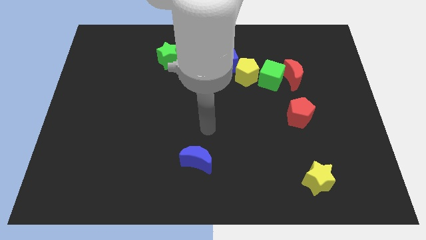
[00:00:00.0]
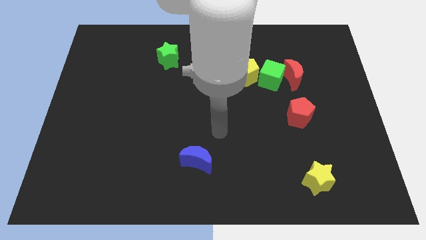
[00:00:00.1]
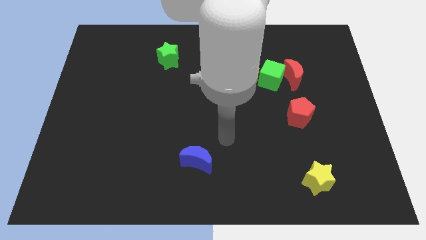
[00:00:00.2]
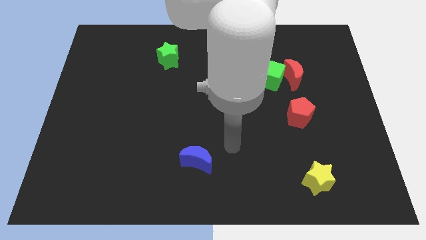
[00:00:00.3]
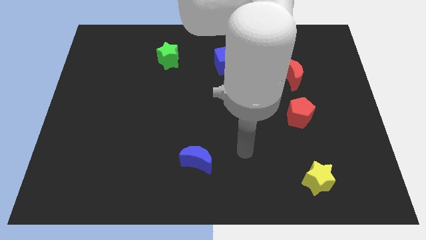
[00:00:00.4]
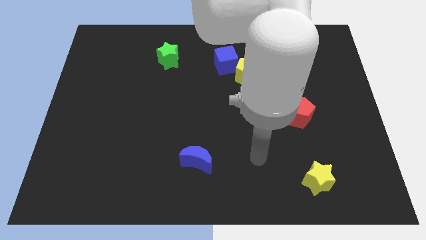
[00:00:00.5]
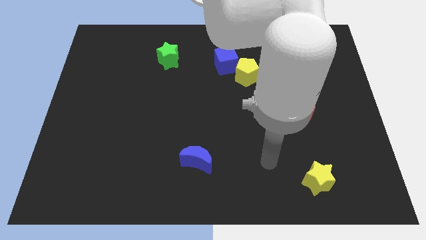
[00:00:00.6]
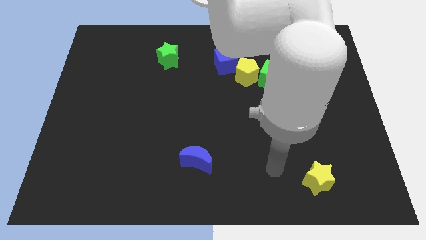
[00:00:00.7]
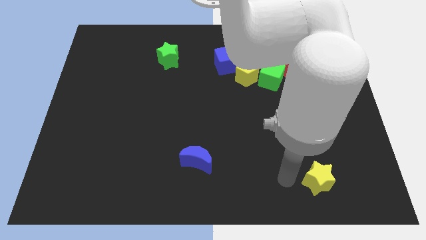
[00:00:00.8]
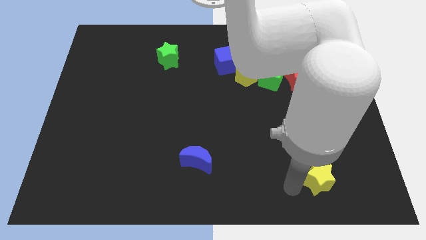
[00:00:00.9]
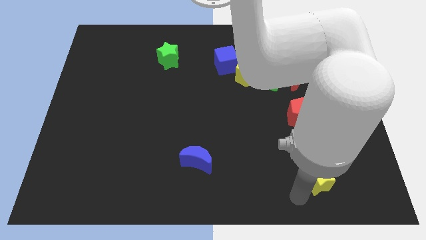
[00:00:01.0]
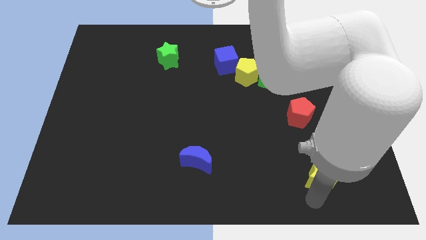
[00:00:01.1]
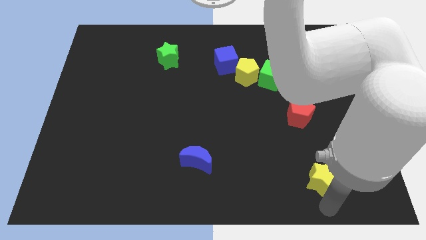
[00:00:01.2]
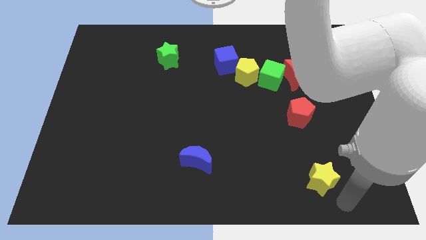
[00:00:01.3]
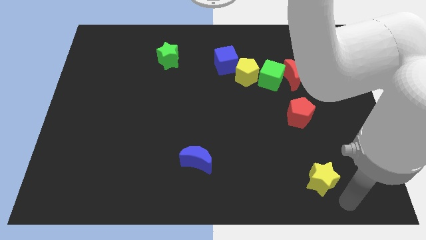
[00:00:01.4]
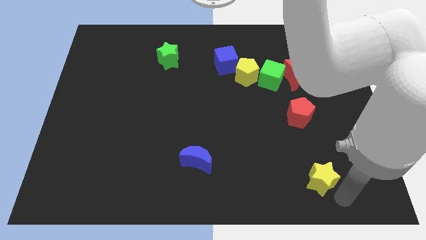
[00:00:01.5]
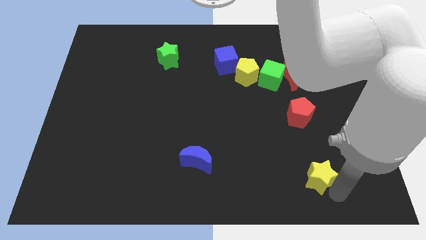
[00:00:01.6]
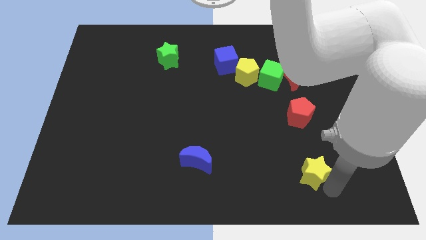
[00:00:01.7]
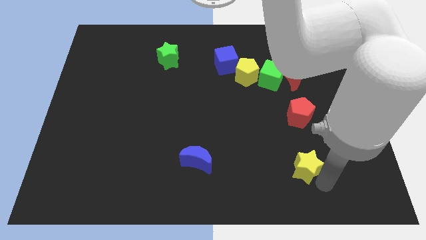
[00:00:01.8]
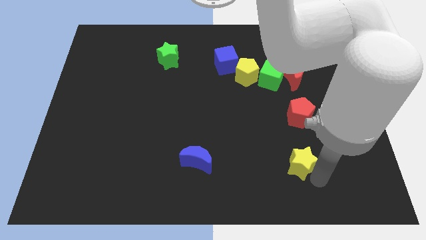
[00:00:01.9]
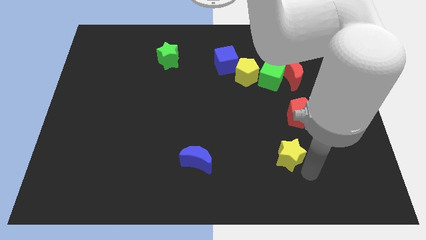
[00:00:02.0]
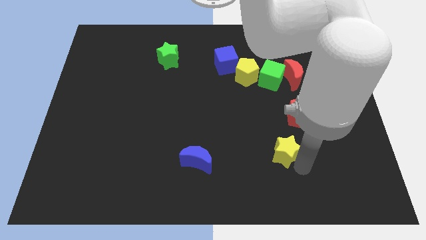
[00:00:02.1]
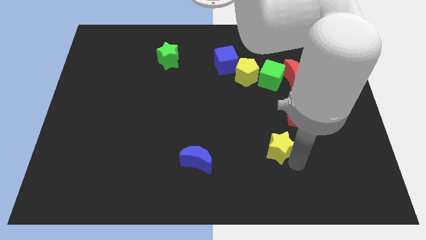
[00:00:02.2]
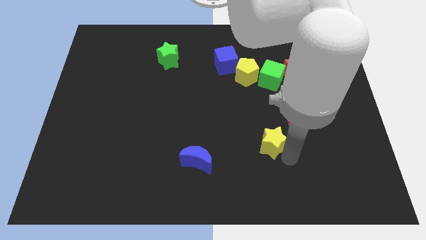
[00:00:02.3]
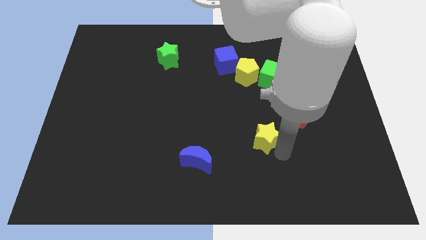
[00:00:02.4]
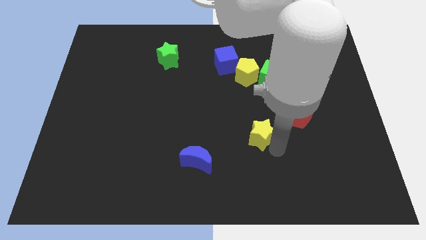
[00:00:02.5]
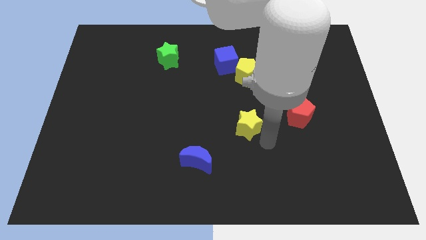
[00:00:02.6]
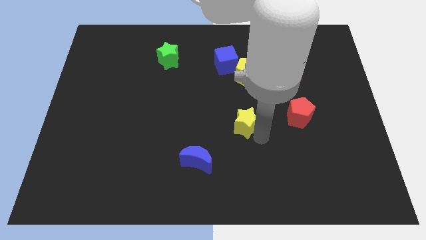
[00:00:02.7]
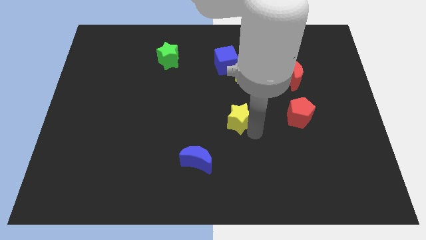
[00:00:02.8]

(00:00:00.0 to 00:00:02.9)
slide the yellow star upwards and left diagonally

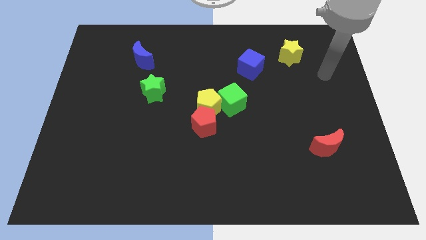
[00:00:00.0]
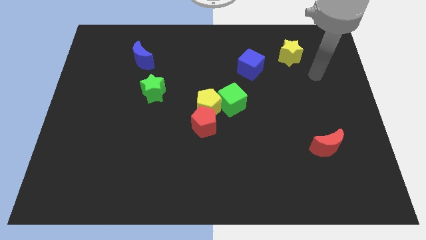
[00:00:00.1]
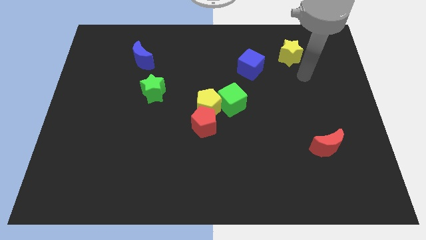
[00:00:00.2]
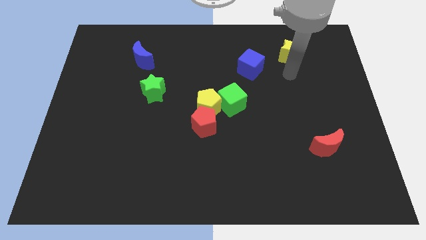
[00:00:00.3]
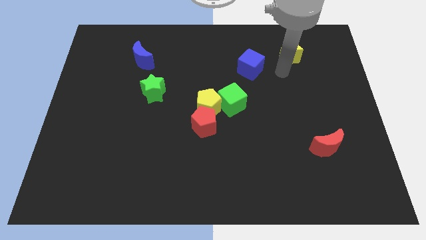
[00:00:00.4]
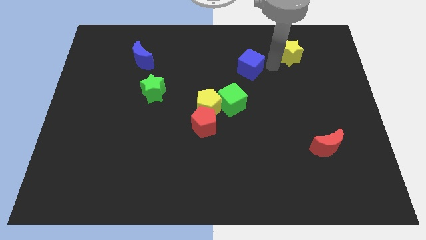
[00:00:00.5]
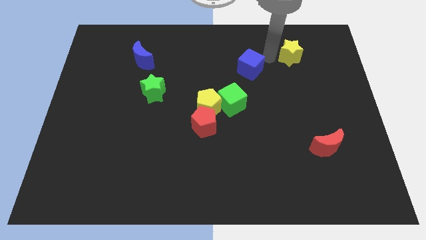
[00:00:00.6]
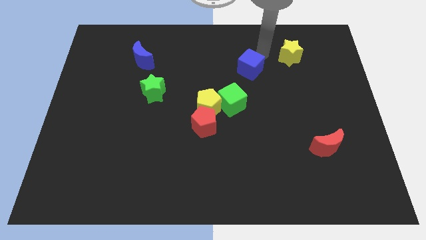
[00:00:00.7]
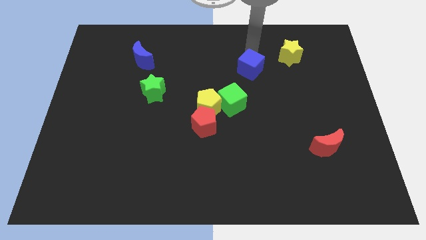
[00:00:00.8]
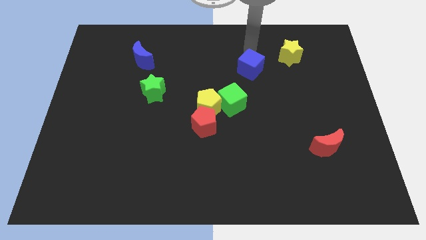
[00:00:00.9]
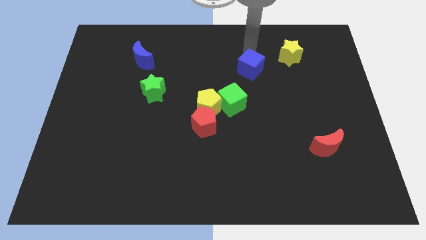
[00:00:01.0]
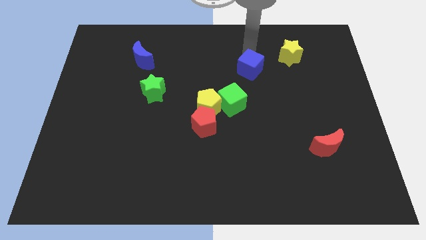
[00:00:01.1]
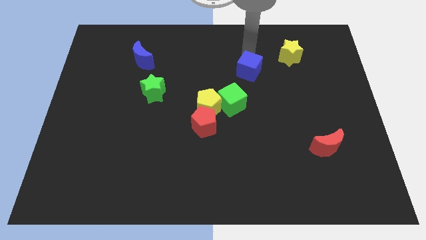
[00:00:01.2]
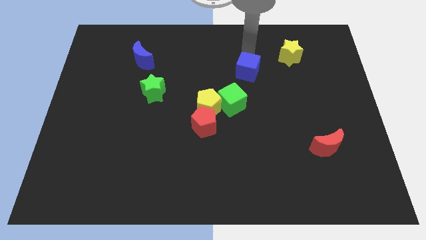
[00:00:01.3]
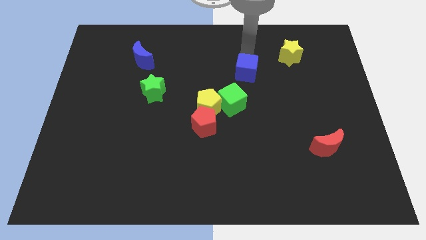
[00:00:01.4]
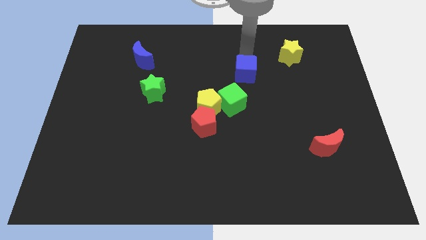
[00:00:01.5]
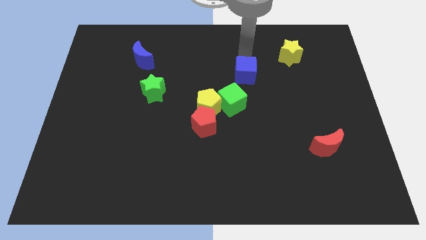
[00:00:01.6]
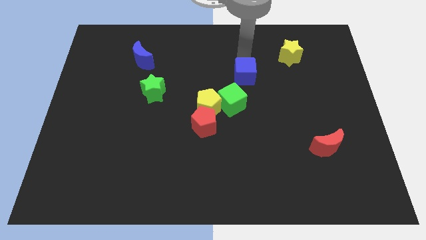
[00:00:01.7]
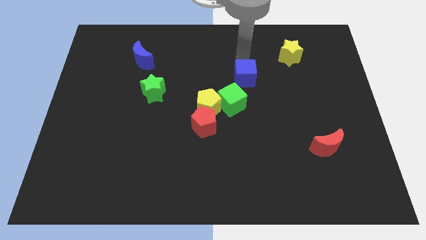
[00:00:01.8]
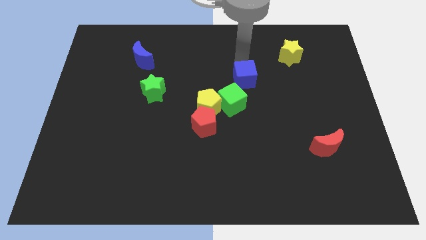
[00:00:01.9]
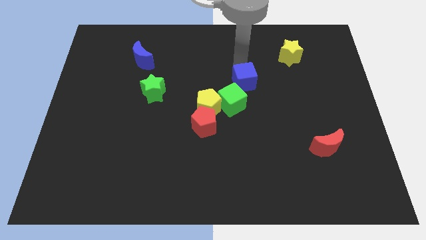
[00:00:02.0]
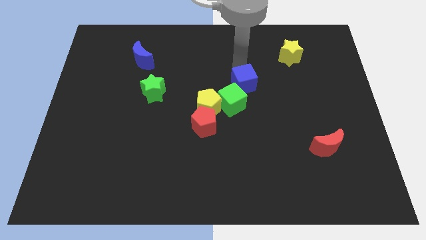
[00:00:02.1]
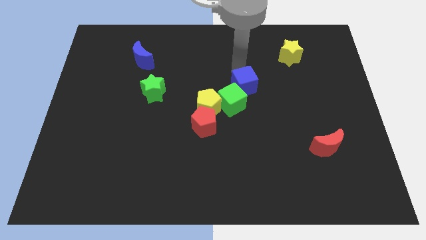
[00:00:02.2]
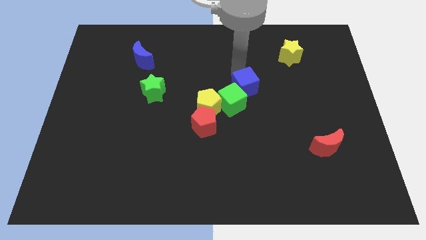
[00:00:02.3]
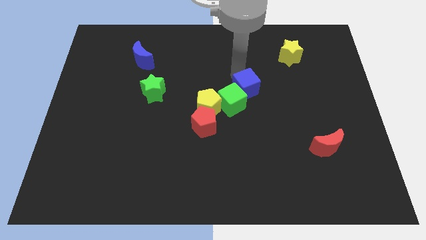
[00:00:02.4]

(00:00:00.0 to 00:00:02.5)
push the blue cube a bit down

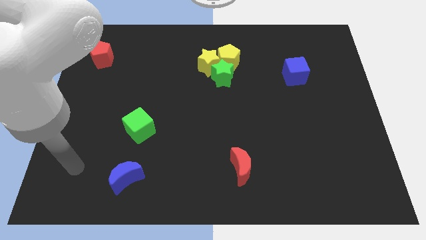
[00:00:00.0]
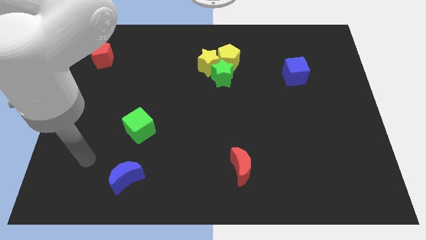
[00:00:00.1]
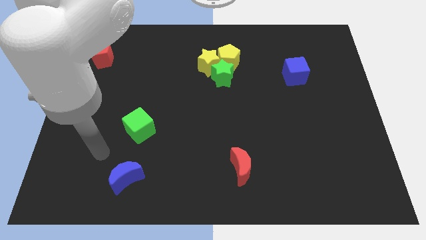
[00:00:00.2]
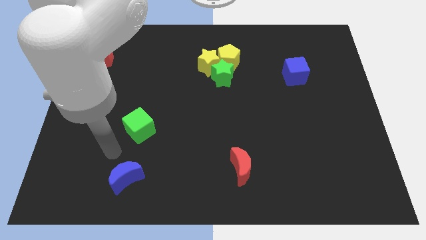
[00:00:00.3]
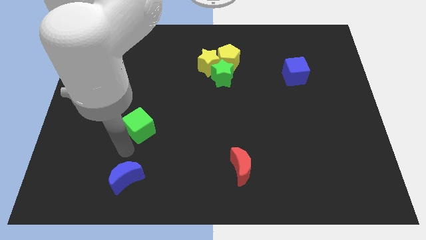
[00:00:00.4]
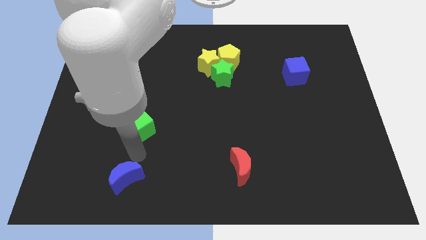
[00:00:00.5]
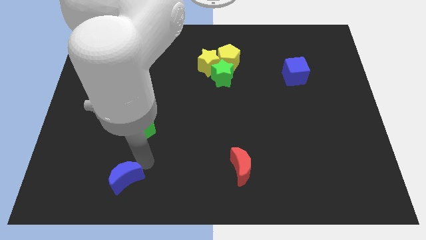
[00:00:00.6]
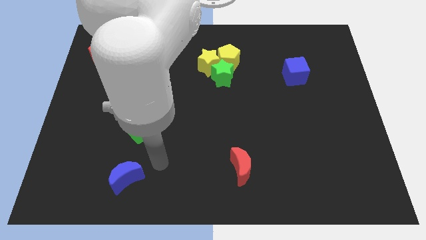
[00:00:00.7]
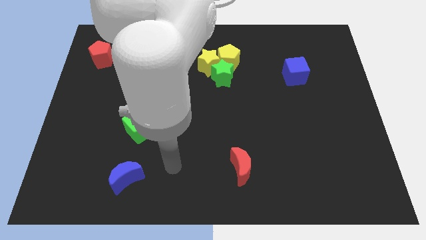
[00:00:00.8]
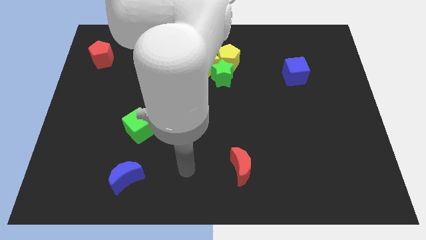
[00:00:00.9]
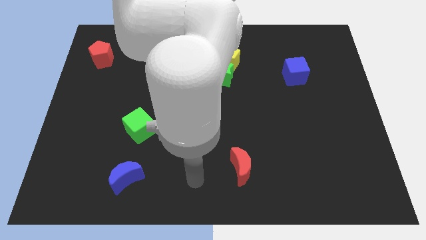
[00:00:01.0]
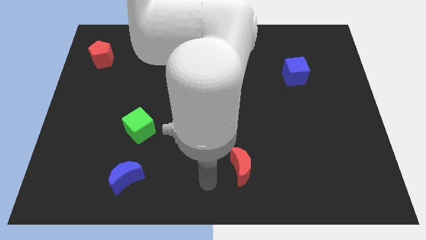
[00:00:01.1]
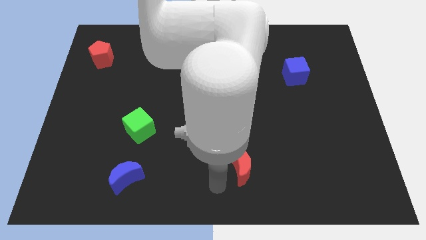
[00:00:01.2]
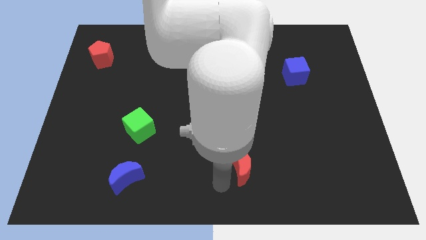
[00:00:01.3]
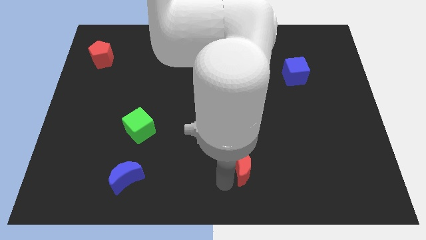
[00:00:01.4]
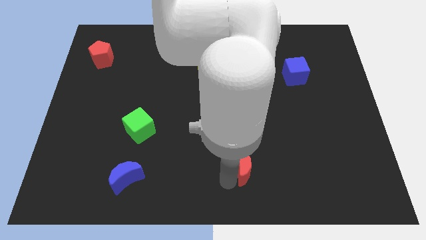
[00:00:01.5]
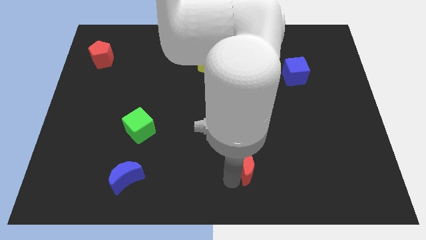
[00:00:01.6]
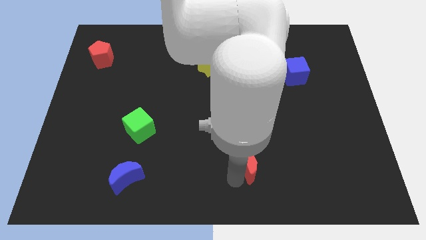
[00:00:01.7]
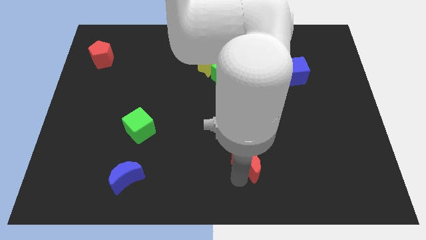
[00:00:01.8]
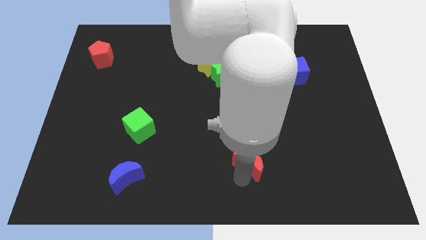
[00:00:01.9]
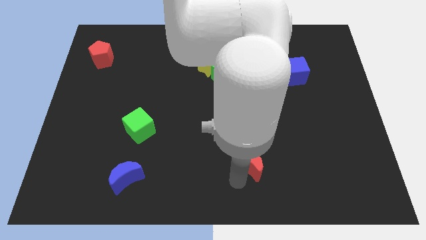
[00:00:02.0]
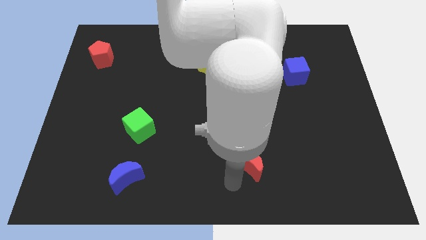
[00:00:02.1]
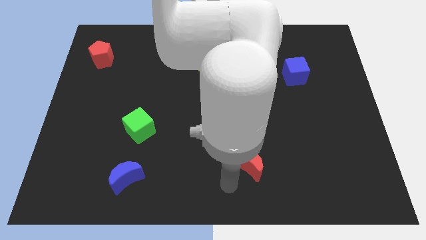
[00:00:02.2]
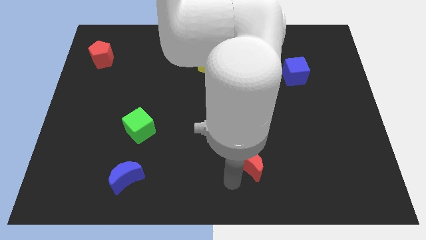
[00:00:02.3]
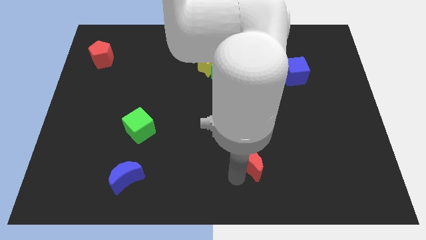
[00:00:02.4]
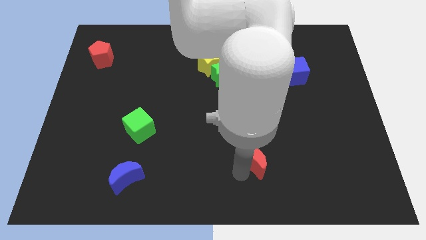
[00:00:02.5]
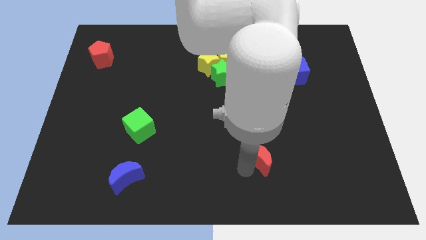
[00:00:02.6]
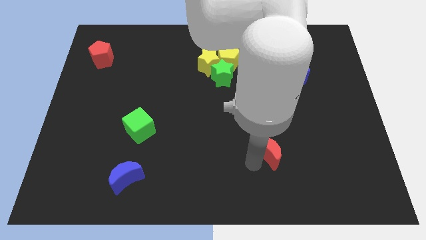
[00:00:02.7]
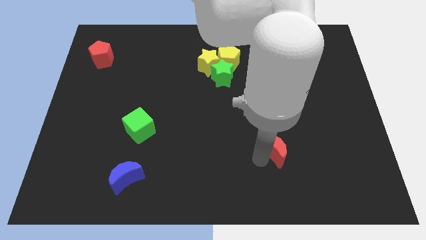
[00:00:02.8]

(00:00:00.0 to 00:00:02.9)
move the red moon a little diagonally up and right

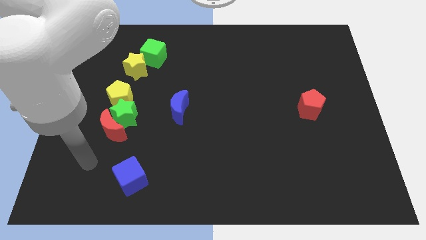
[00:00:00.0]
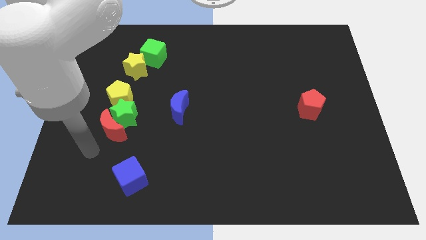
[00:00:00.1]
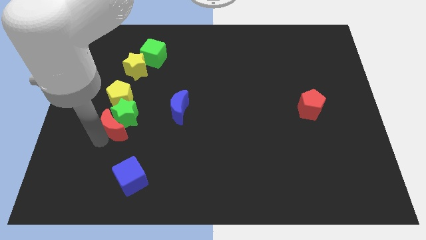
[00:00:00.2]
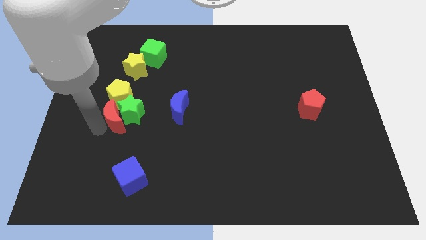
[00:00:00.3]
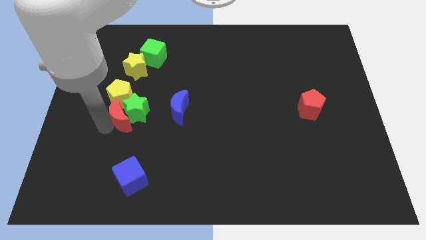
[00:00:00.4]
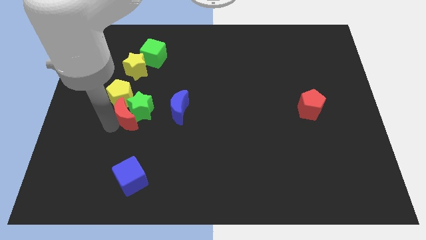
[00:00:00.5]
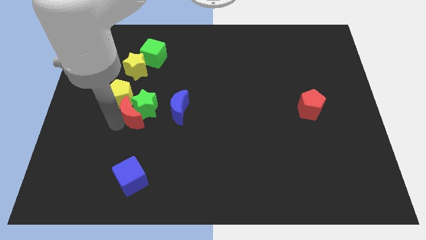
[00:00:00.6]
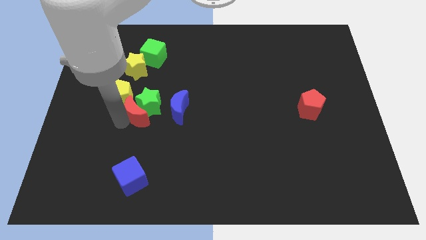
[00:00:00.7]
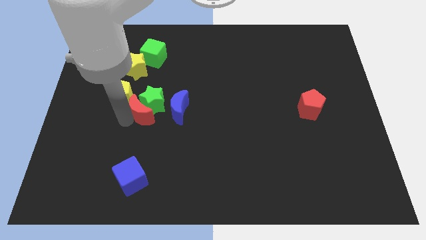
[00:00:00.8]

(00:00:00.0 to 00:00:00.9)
slide the green star up and then to the right a little bit
